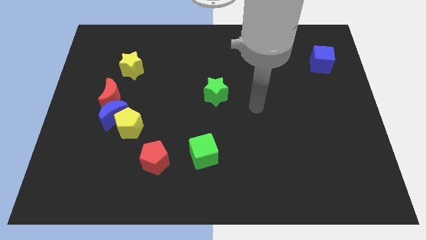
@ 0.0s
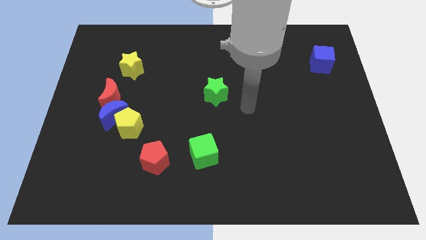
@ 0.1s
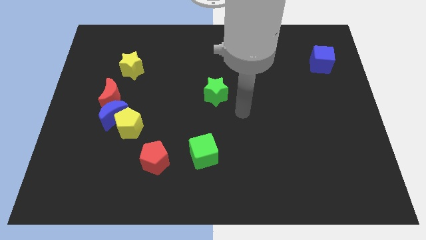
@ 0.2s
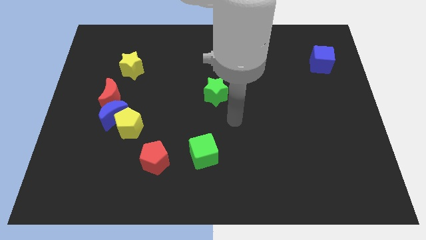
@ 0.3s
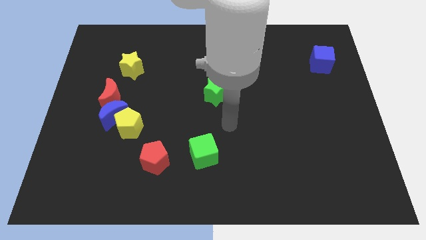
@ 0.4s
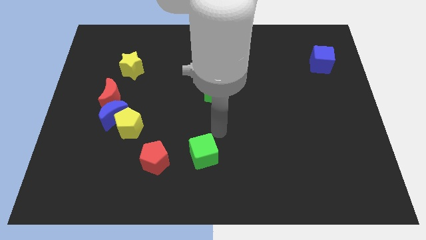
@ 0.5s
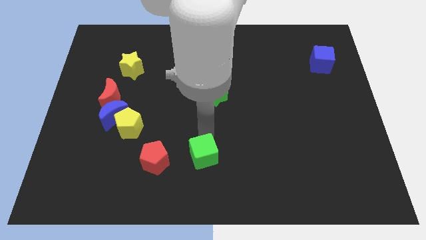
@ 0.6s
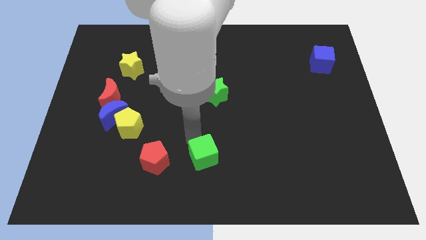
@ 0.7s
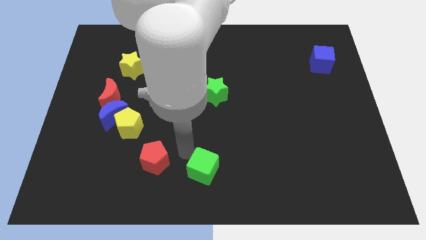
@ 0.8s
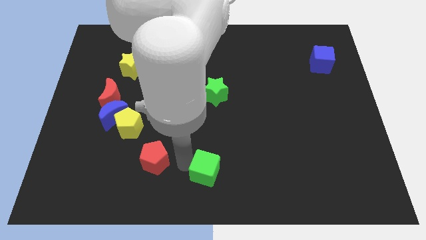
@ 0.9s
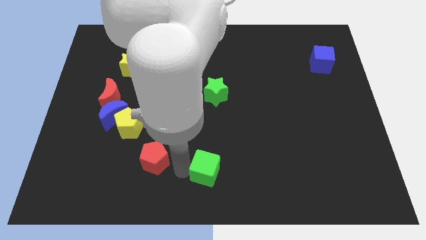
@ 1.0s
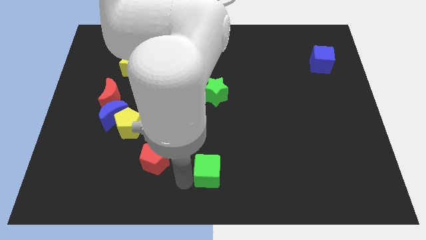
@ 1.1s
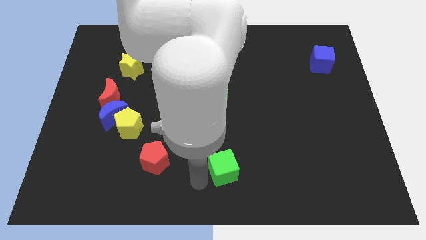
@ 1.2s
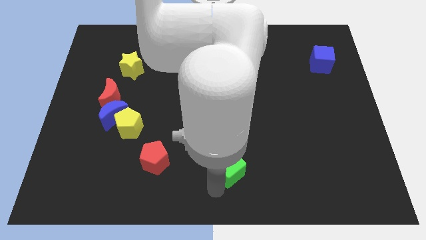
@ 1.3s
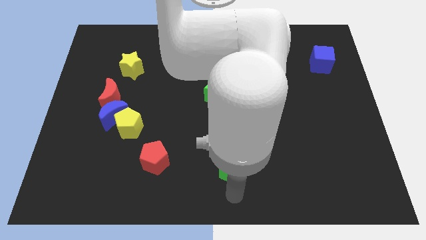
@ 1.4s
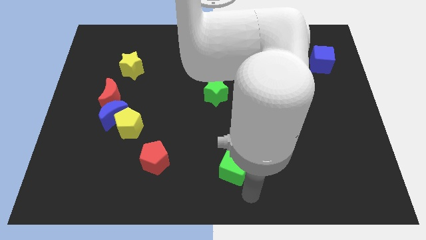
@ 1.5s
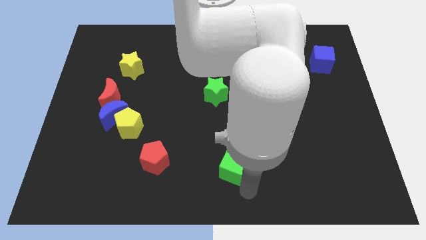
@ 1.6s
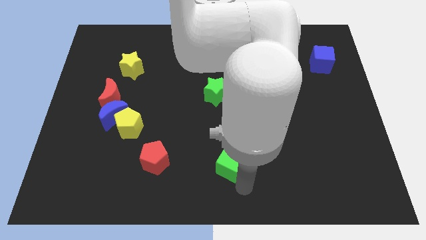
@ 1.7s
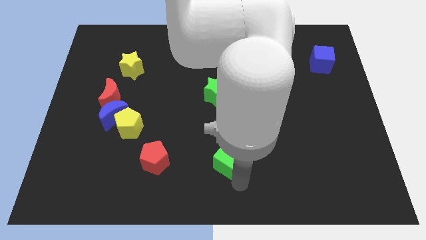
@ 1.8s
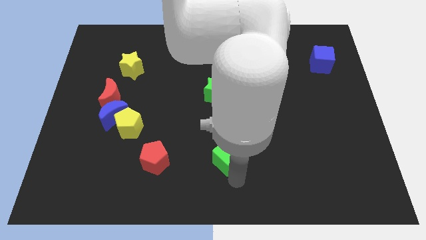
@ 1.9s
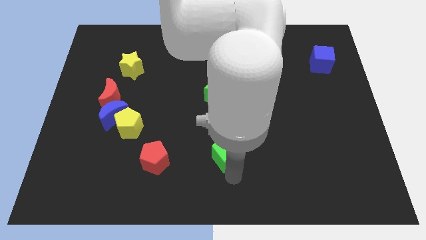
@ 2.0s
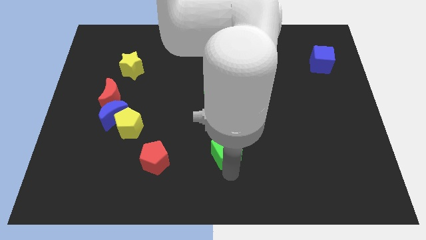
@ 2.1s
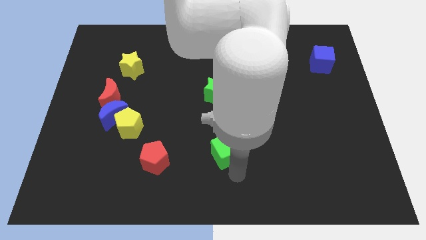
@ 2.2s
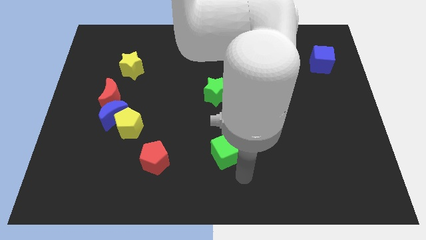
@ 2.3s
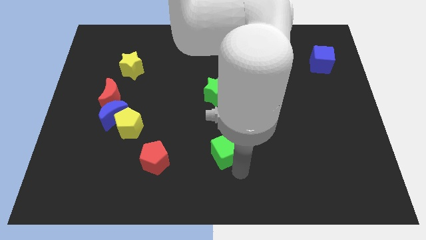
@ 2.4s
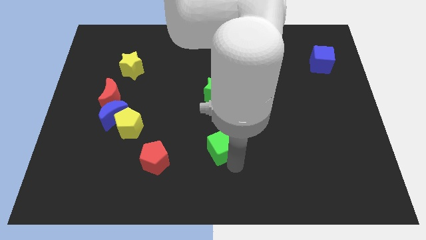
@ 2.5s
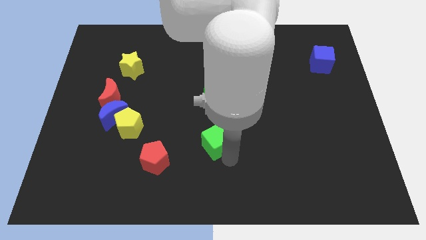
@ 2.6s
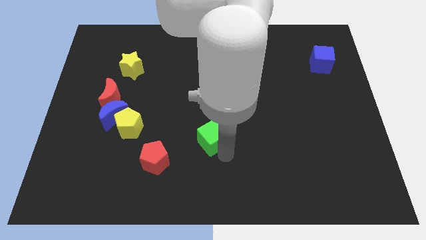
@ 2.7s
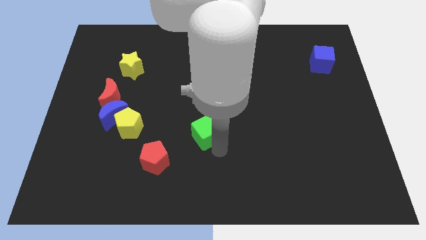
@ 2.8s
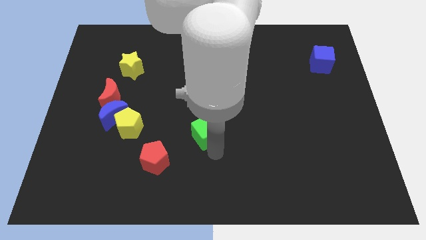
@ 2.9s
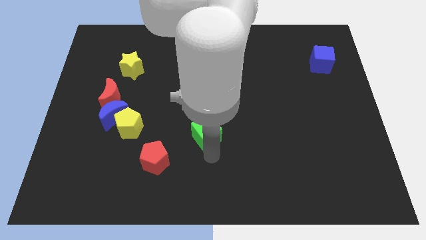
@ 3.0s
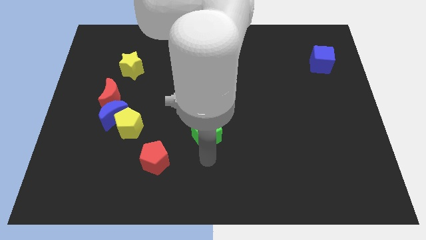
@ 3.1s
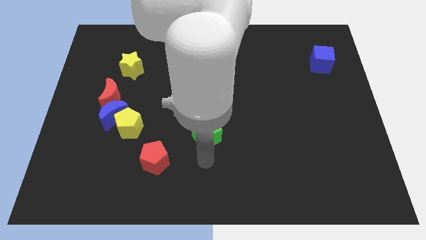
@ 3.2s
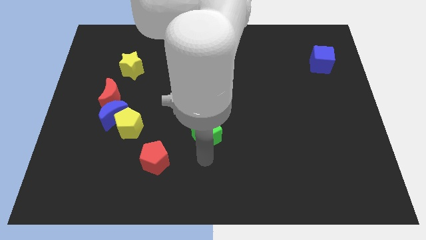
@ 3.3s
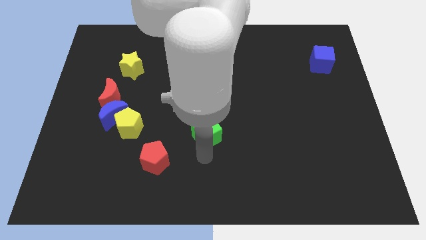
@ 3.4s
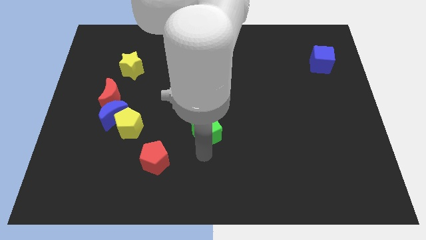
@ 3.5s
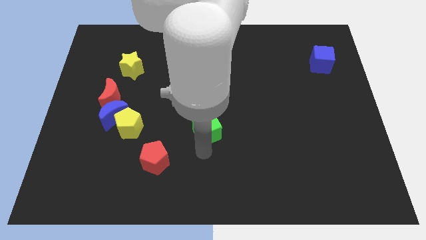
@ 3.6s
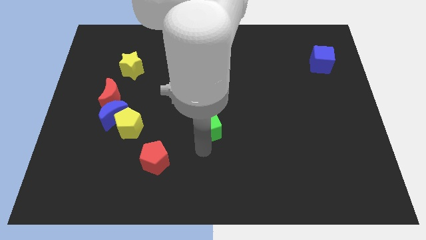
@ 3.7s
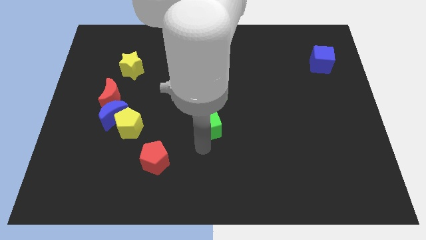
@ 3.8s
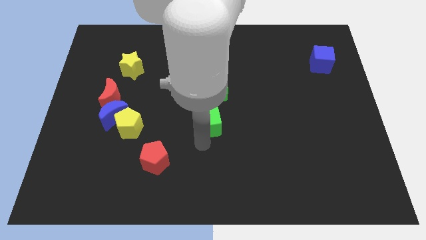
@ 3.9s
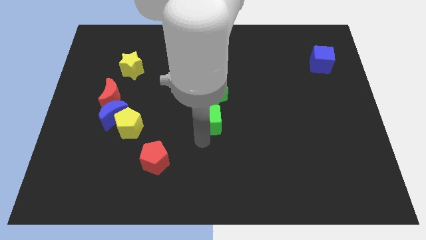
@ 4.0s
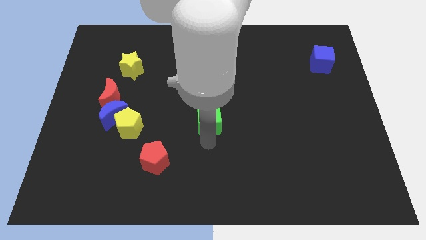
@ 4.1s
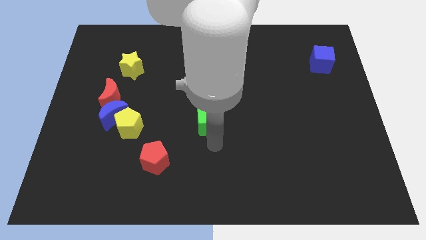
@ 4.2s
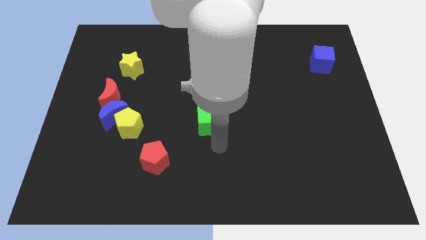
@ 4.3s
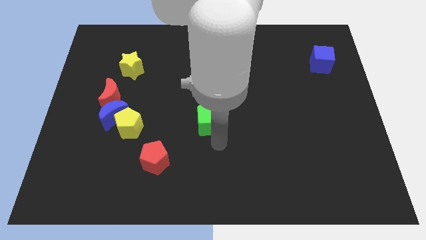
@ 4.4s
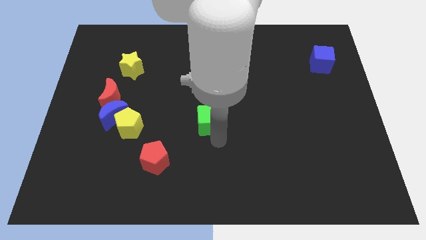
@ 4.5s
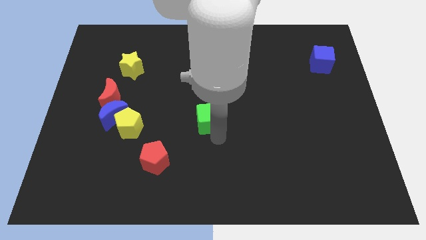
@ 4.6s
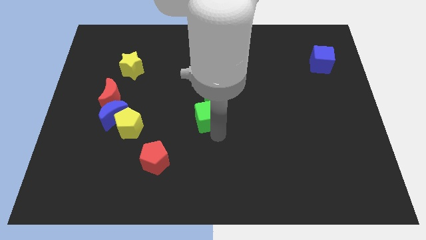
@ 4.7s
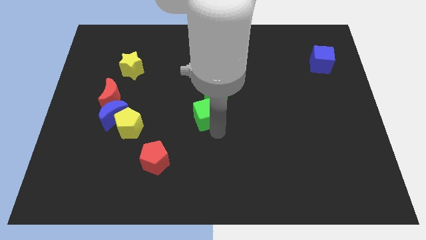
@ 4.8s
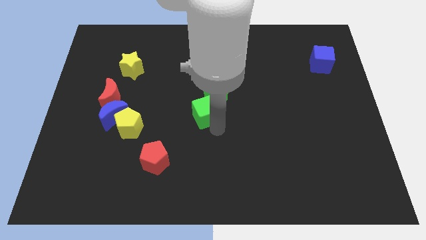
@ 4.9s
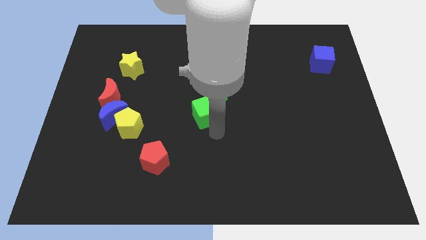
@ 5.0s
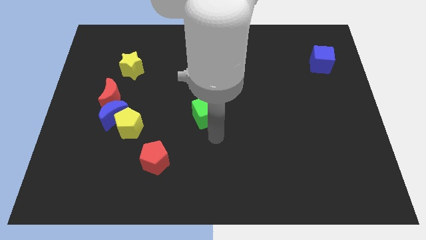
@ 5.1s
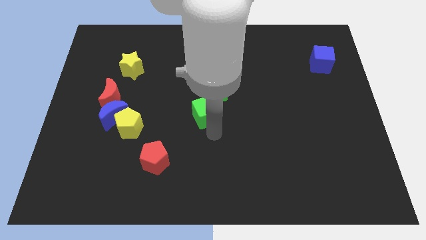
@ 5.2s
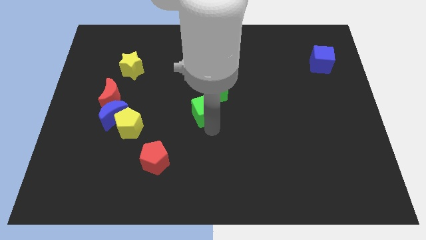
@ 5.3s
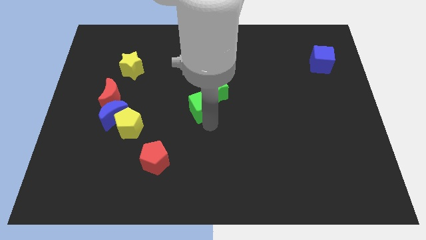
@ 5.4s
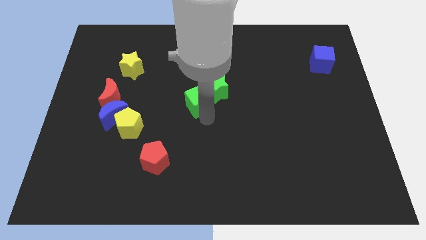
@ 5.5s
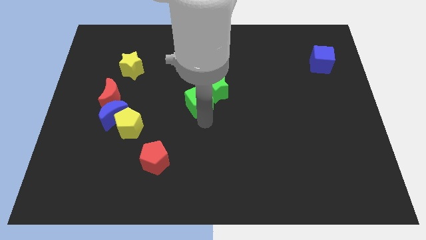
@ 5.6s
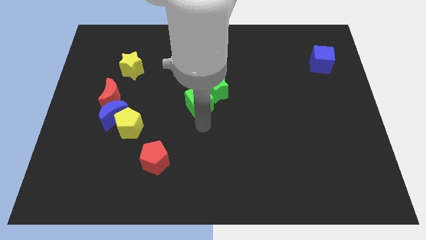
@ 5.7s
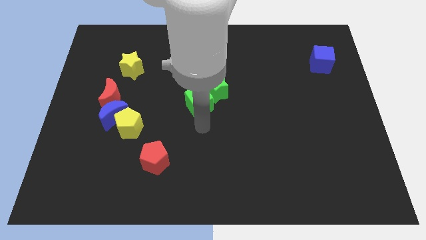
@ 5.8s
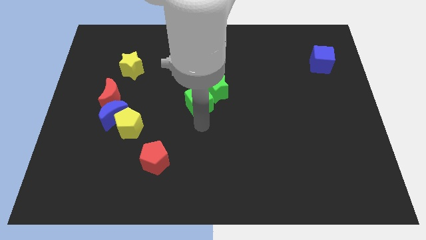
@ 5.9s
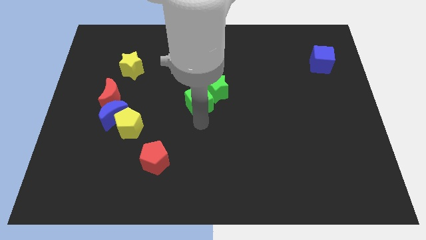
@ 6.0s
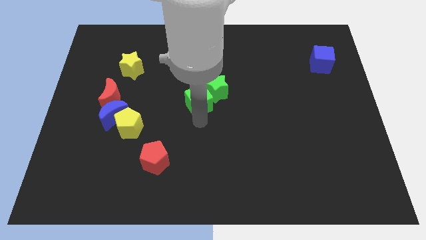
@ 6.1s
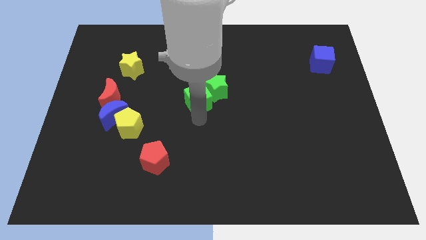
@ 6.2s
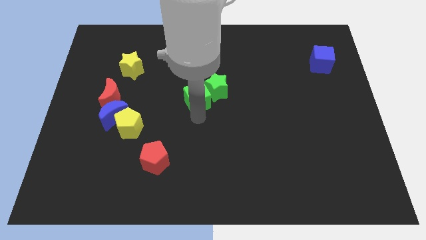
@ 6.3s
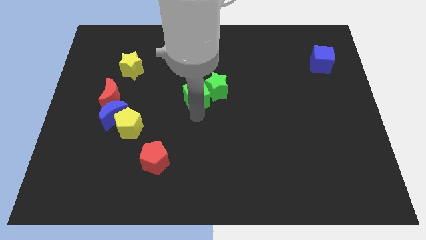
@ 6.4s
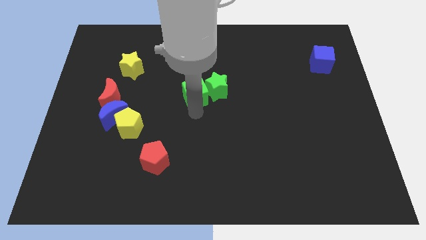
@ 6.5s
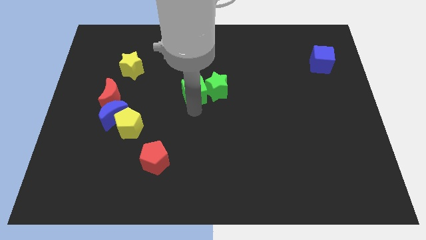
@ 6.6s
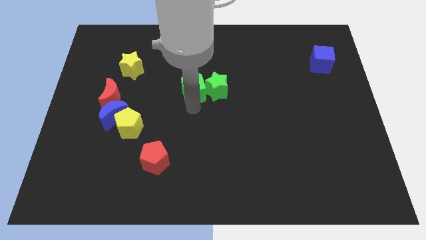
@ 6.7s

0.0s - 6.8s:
push the green cube diagonally up and to the left of the green star

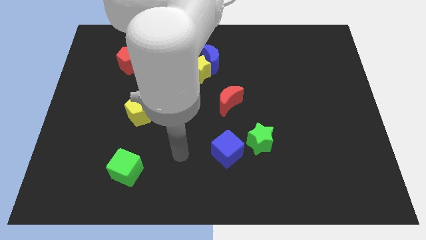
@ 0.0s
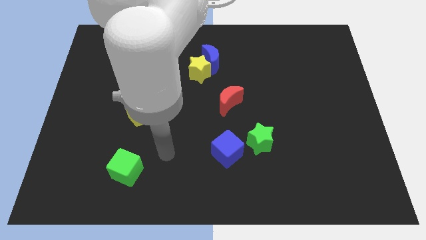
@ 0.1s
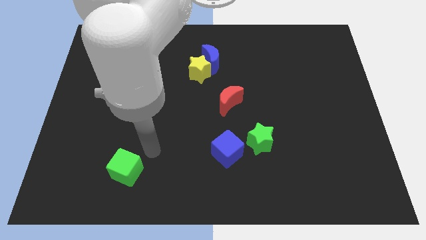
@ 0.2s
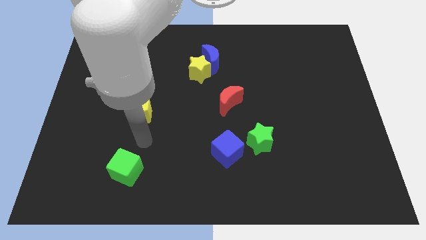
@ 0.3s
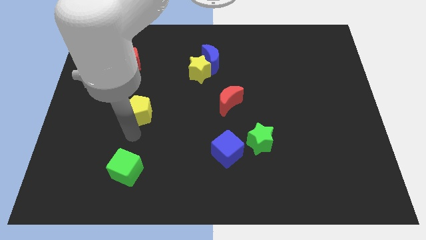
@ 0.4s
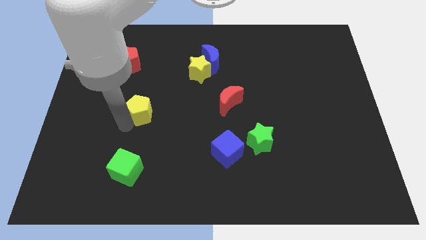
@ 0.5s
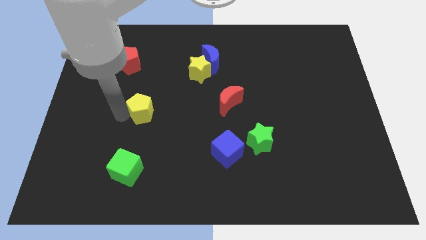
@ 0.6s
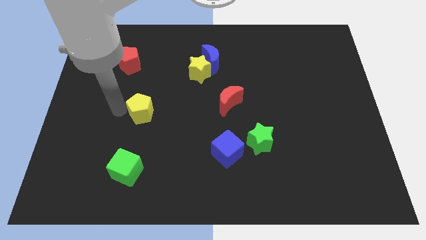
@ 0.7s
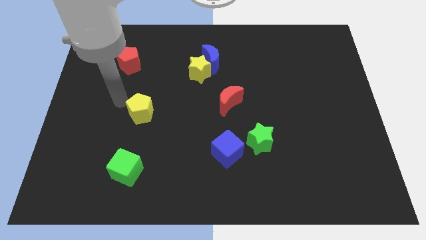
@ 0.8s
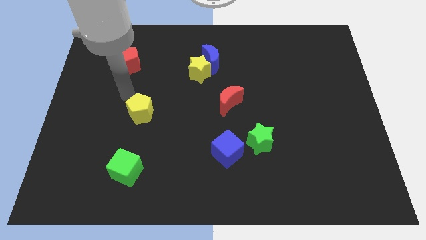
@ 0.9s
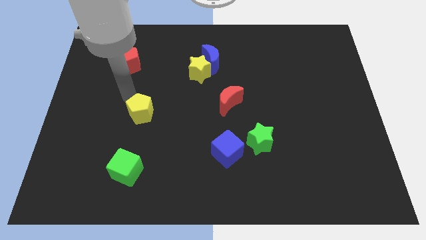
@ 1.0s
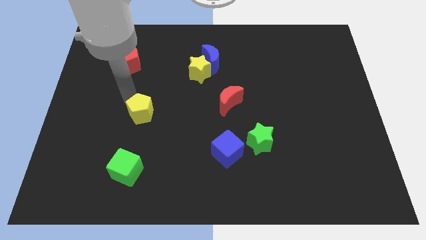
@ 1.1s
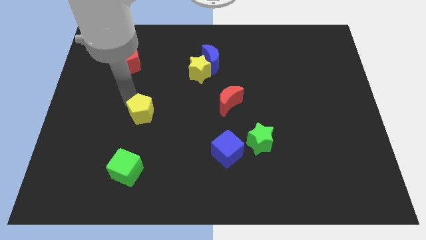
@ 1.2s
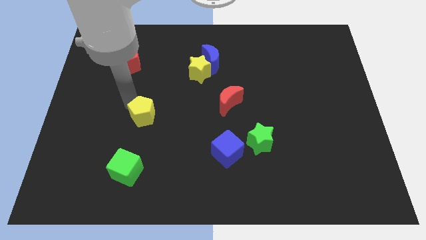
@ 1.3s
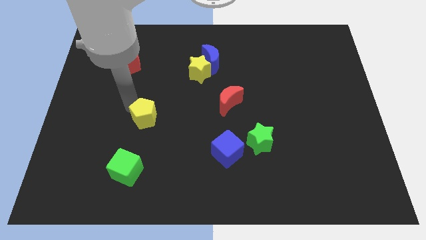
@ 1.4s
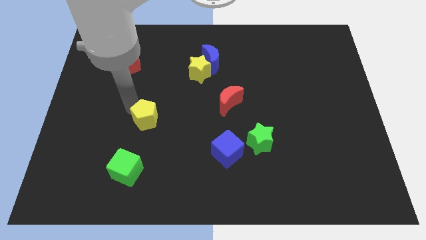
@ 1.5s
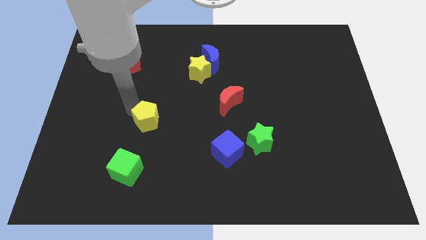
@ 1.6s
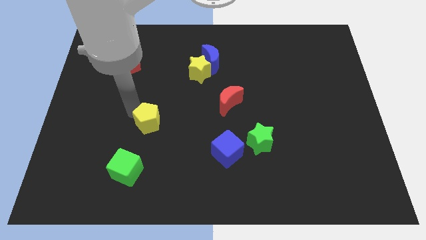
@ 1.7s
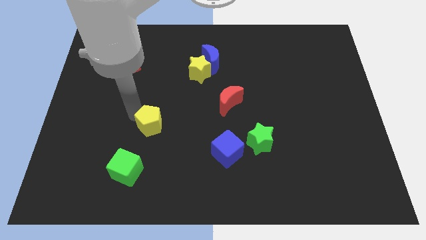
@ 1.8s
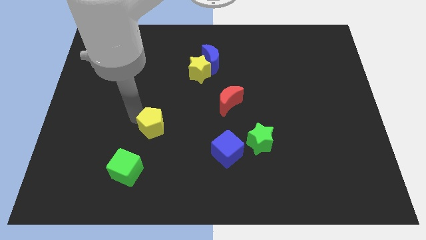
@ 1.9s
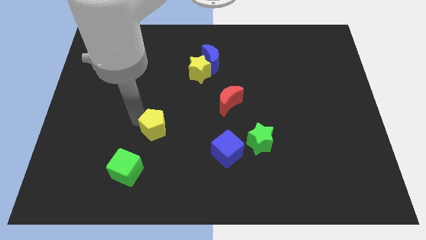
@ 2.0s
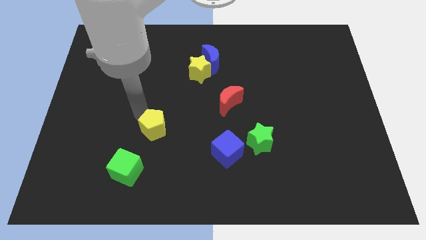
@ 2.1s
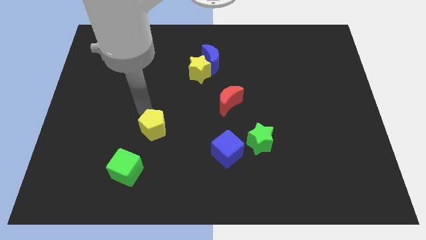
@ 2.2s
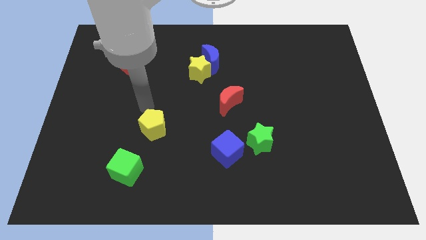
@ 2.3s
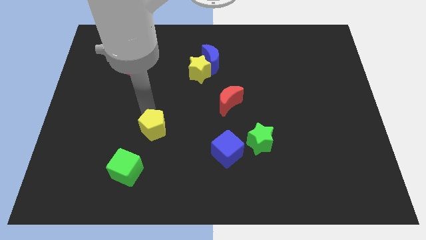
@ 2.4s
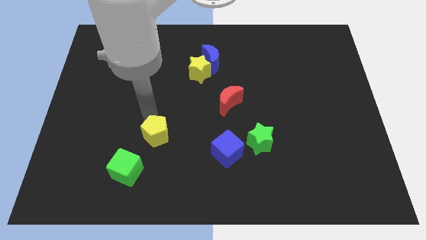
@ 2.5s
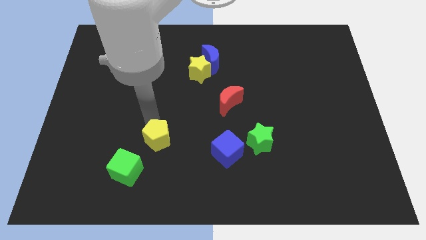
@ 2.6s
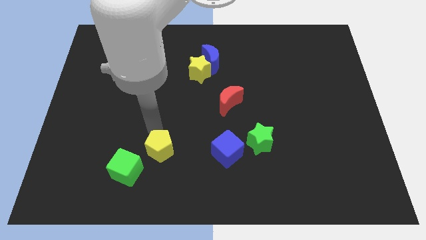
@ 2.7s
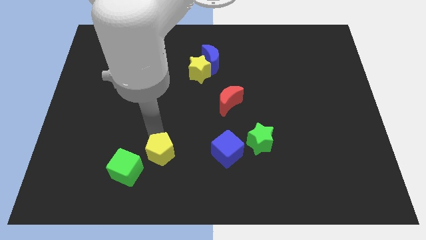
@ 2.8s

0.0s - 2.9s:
move the yellow pentagon just right of the green cube
